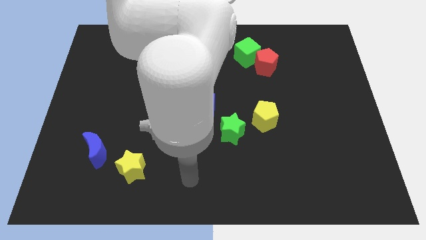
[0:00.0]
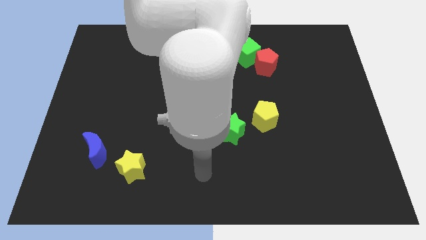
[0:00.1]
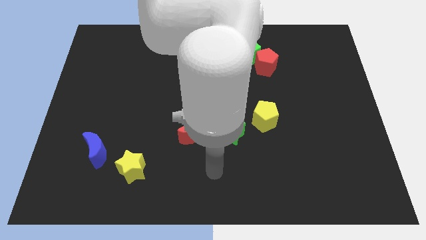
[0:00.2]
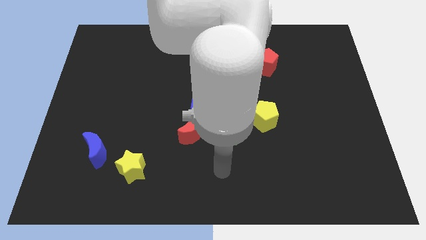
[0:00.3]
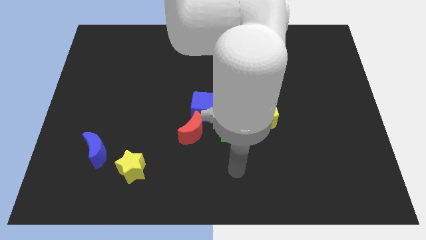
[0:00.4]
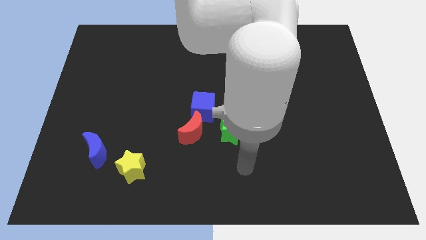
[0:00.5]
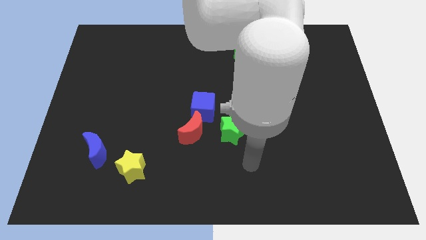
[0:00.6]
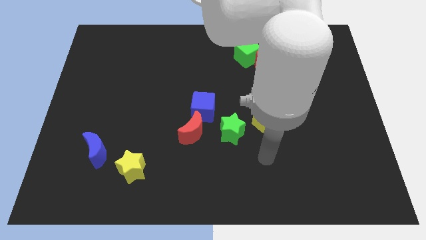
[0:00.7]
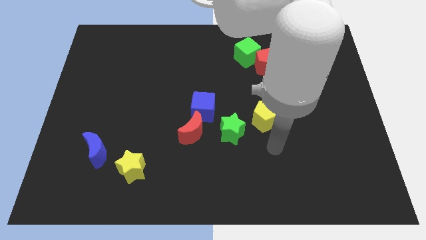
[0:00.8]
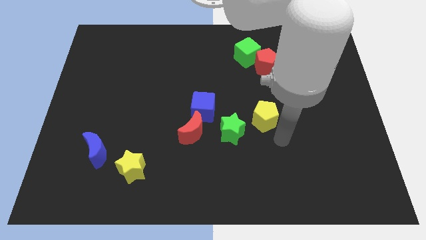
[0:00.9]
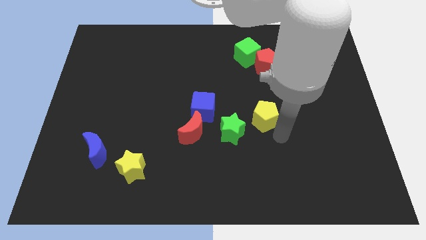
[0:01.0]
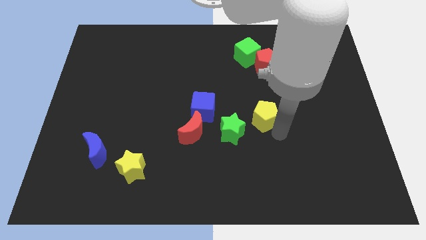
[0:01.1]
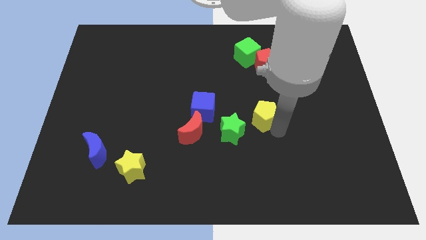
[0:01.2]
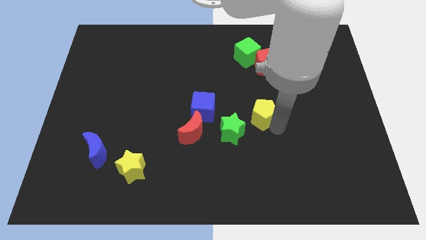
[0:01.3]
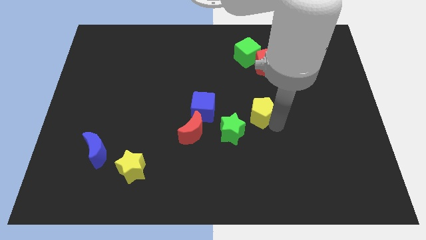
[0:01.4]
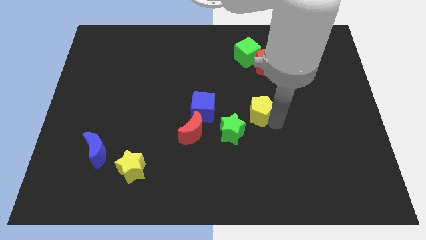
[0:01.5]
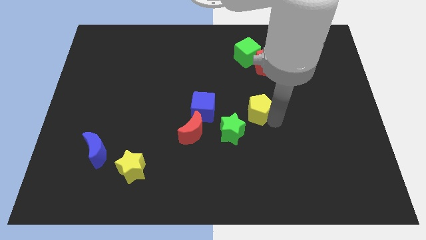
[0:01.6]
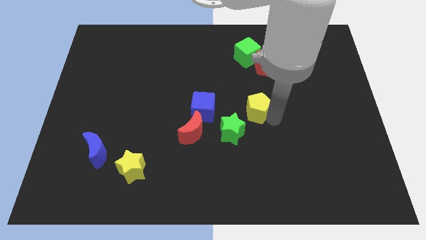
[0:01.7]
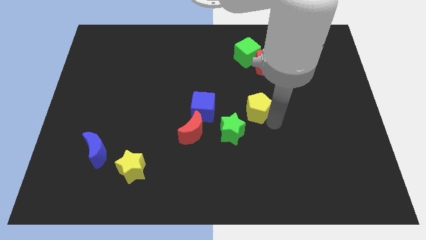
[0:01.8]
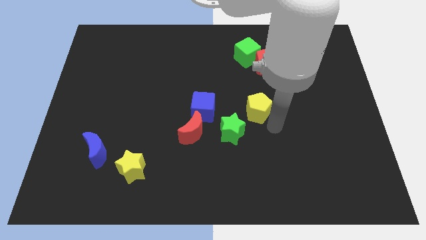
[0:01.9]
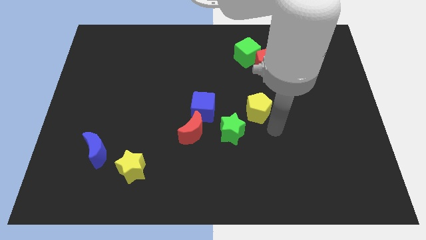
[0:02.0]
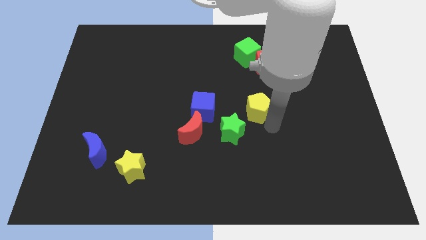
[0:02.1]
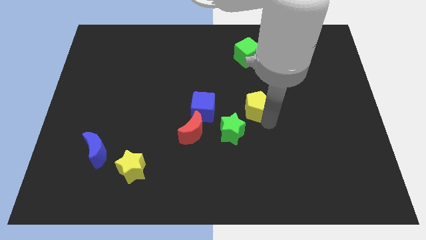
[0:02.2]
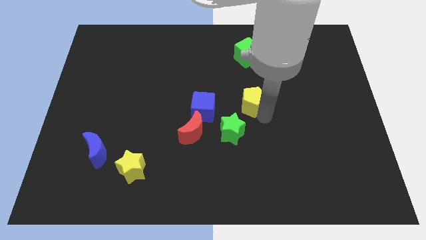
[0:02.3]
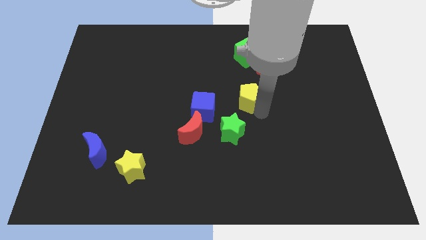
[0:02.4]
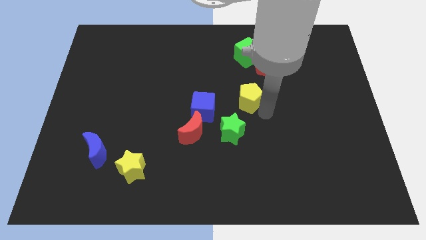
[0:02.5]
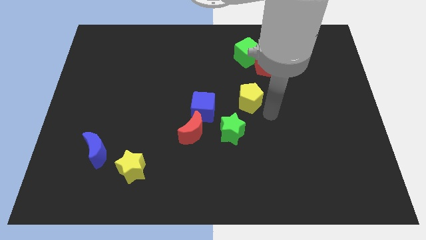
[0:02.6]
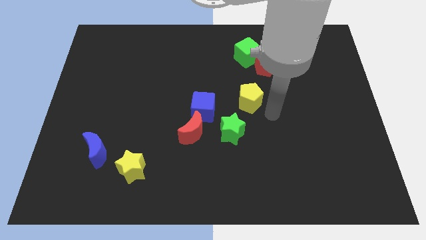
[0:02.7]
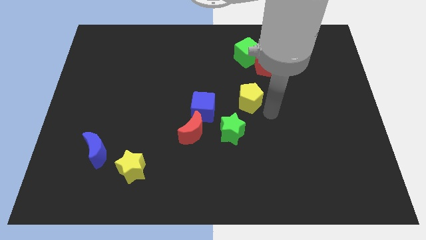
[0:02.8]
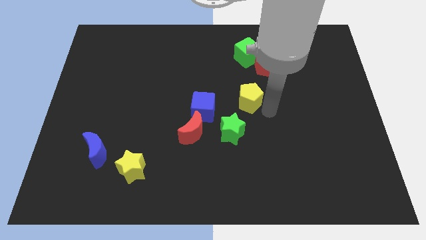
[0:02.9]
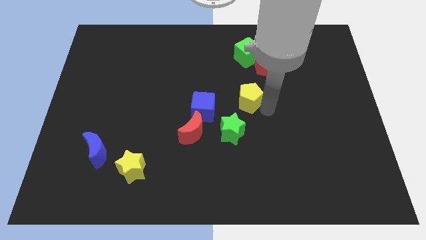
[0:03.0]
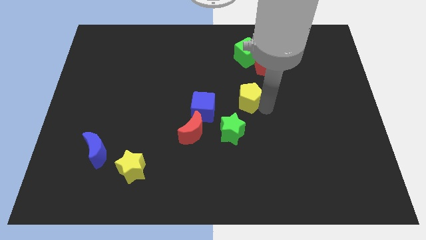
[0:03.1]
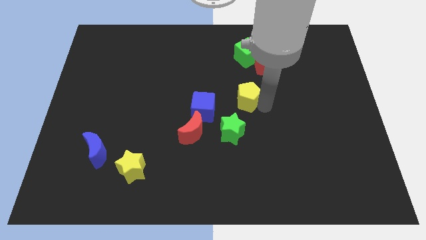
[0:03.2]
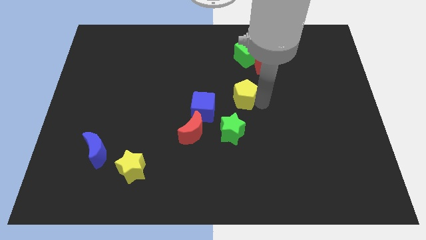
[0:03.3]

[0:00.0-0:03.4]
slightly move the yellow pentagon diagonally upwards and to the left

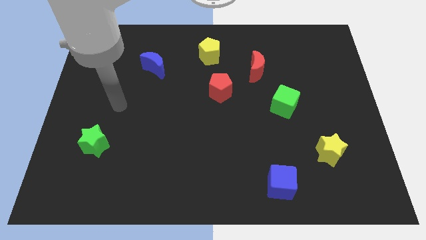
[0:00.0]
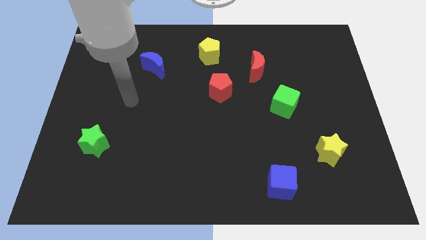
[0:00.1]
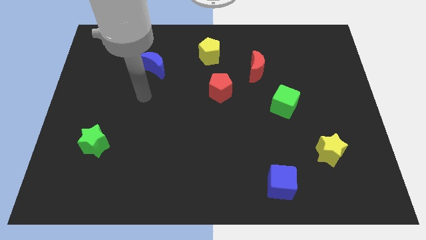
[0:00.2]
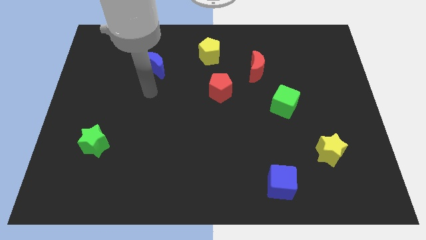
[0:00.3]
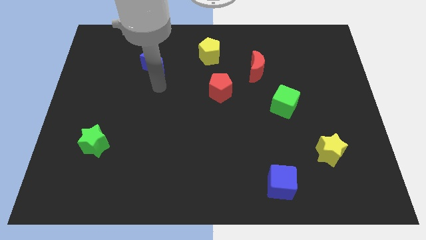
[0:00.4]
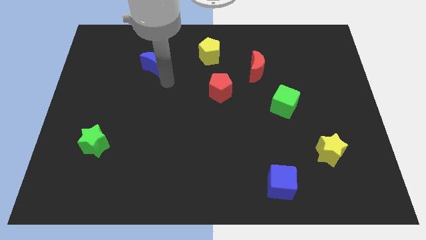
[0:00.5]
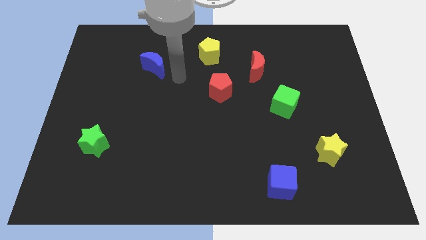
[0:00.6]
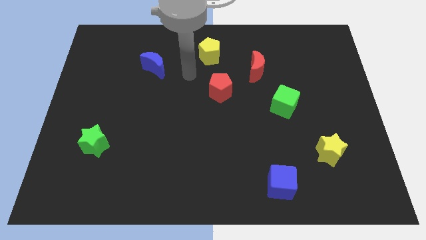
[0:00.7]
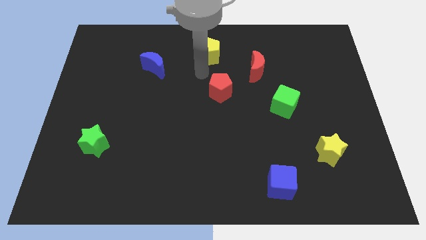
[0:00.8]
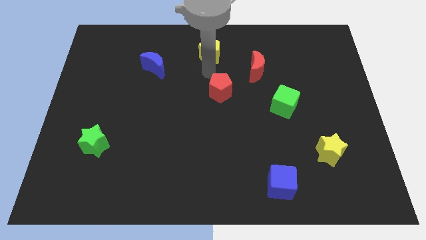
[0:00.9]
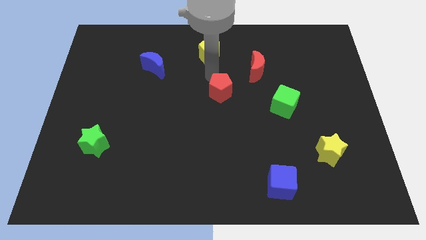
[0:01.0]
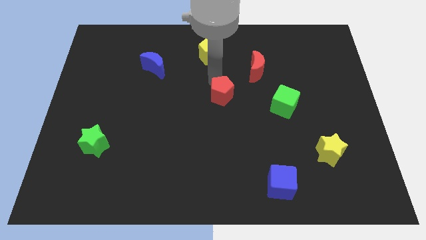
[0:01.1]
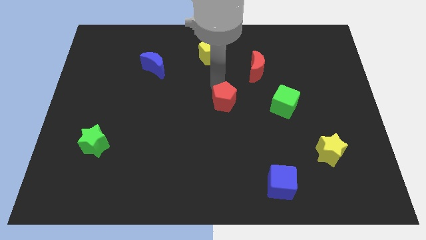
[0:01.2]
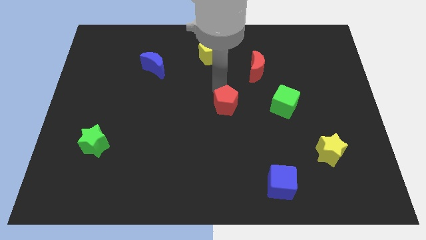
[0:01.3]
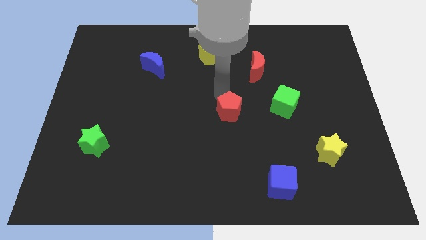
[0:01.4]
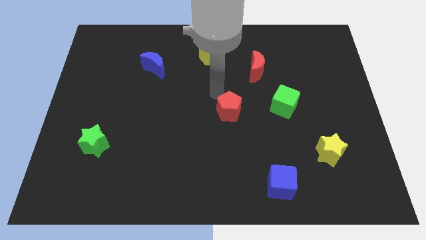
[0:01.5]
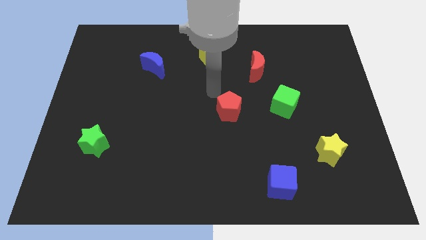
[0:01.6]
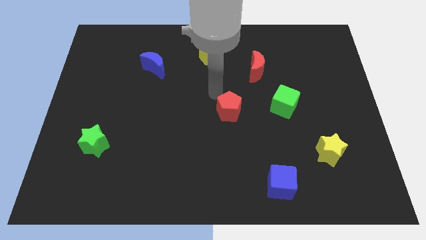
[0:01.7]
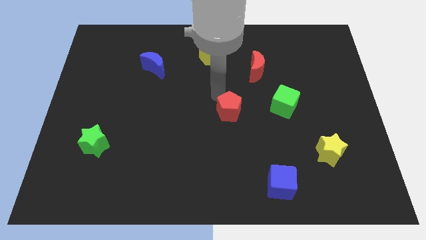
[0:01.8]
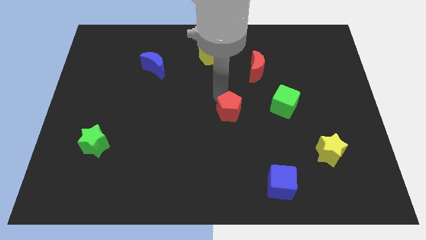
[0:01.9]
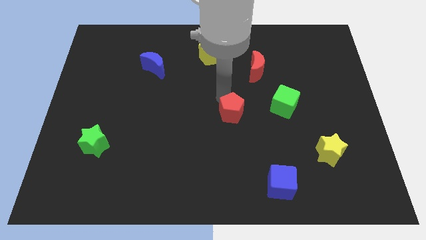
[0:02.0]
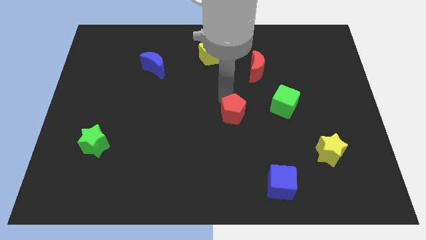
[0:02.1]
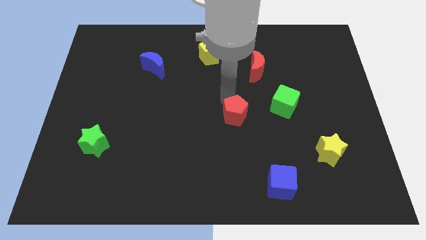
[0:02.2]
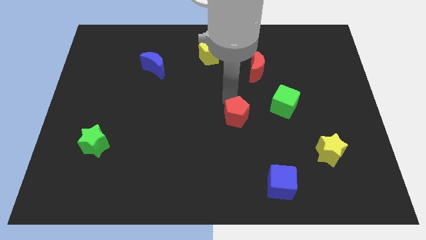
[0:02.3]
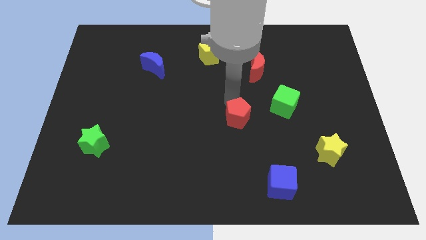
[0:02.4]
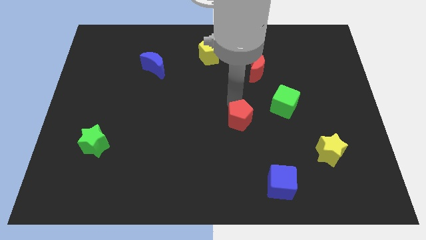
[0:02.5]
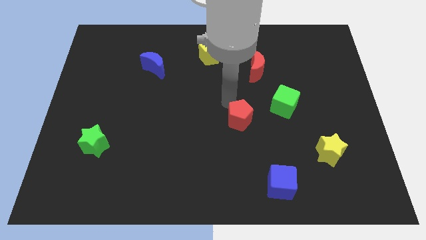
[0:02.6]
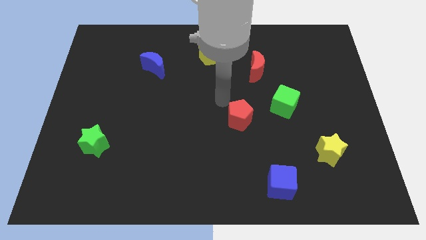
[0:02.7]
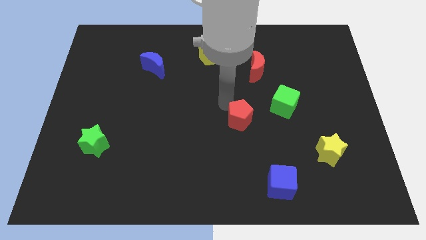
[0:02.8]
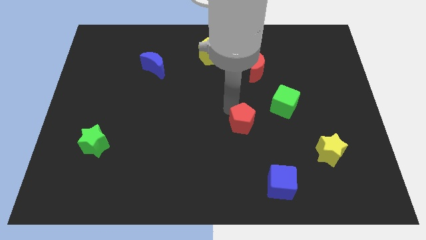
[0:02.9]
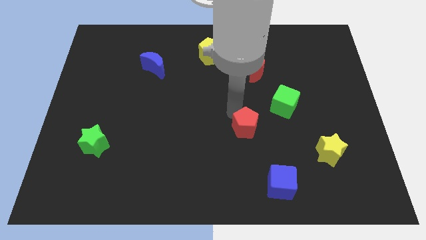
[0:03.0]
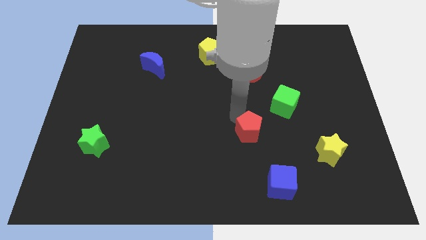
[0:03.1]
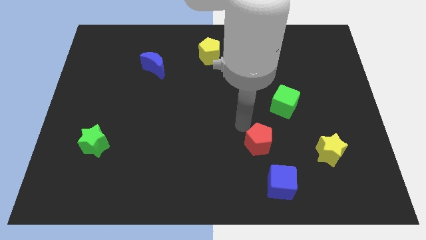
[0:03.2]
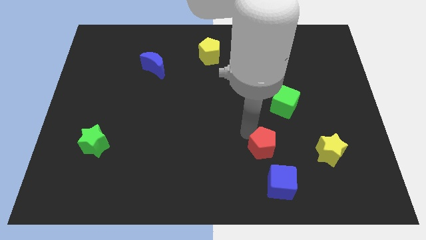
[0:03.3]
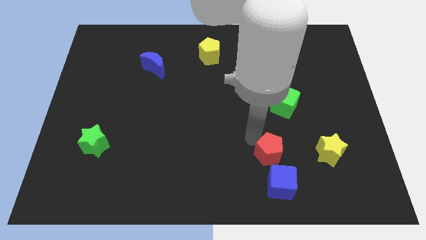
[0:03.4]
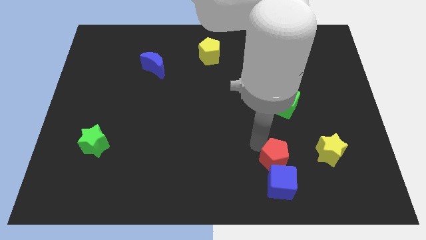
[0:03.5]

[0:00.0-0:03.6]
move the red pentagon down and right diagonally

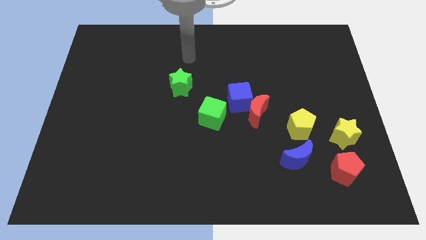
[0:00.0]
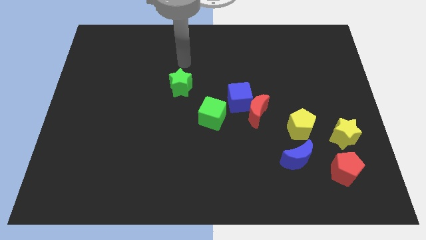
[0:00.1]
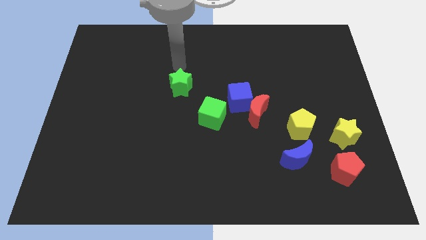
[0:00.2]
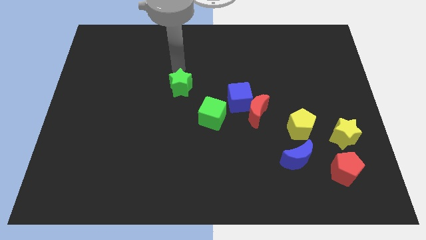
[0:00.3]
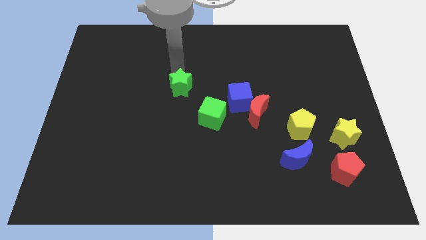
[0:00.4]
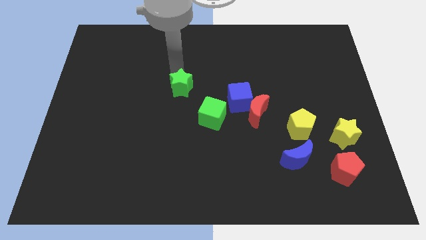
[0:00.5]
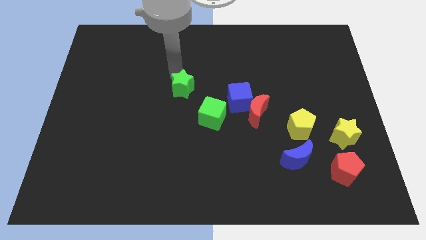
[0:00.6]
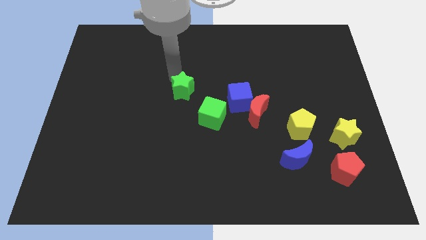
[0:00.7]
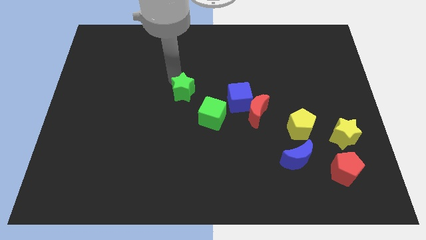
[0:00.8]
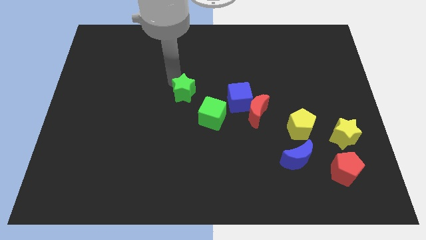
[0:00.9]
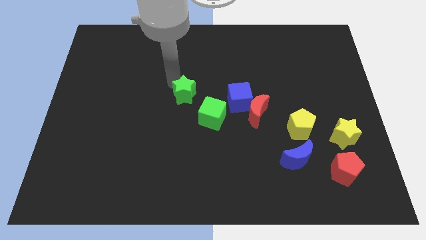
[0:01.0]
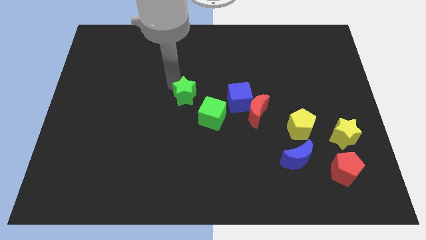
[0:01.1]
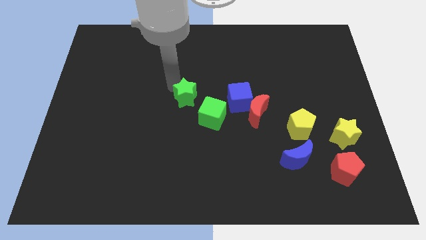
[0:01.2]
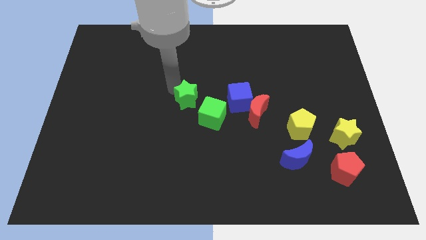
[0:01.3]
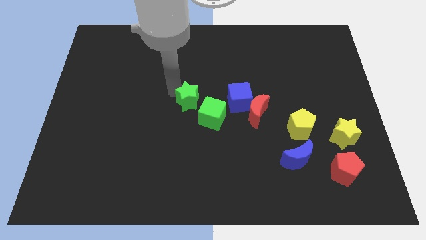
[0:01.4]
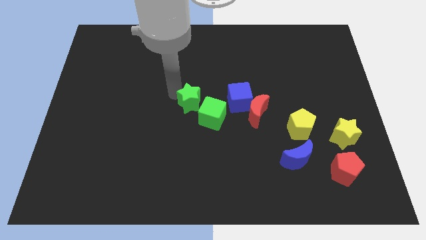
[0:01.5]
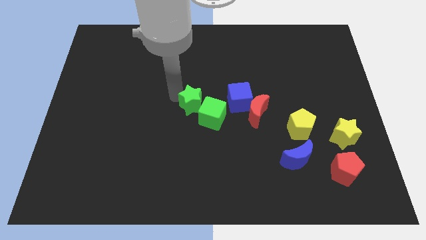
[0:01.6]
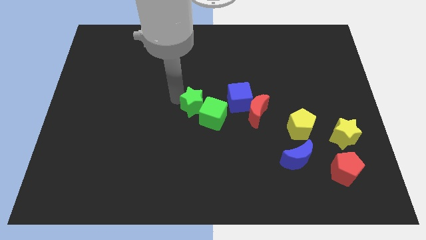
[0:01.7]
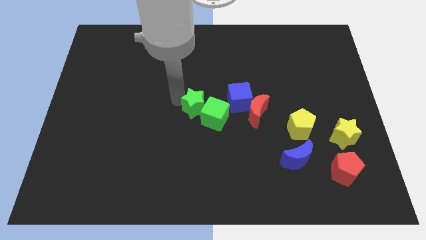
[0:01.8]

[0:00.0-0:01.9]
move the green star downwards and to the right slightly
